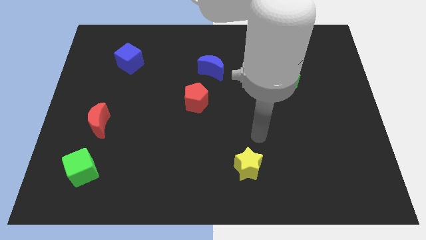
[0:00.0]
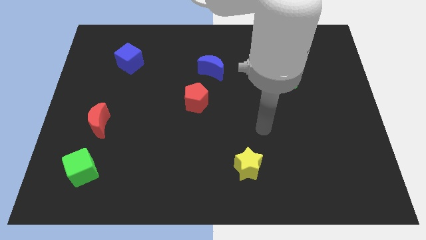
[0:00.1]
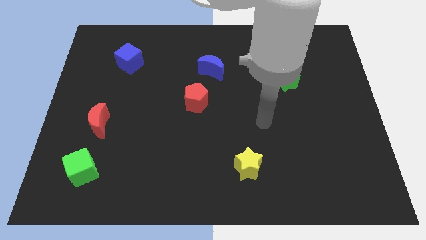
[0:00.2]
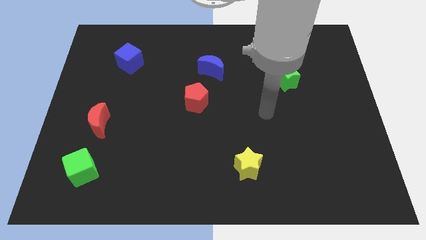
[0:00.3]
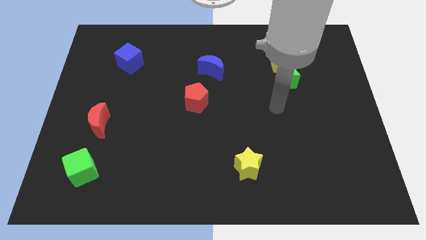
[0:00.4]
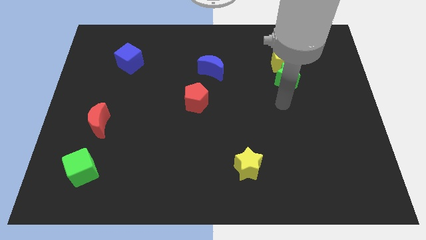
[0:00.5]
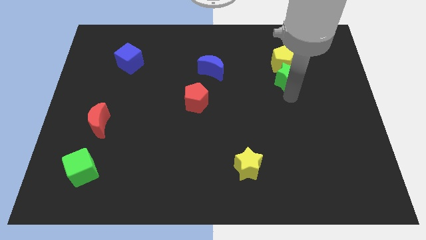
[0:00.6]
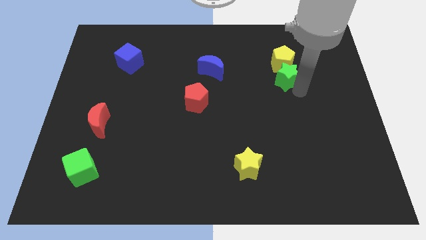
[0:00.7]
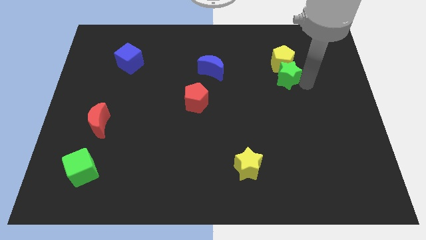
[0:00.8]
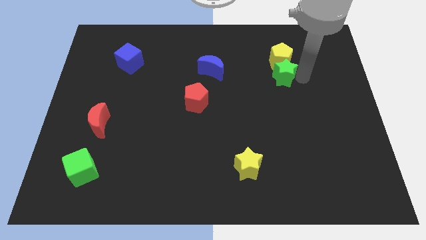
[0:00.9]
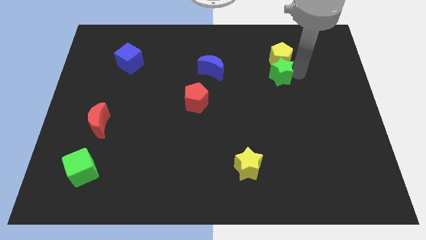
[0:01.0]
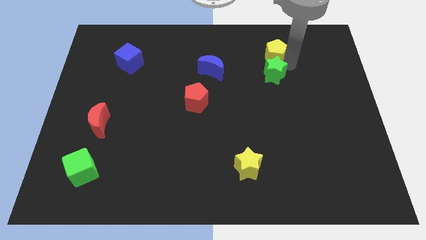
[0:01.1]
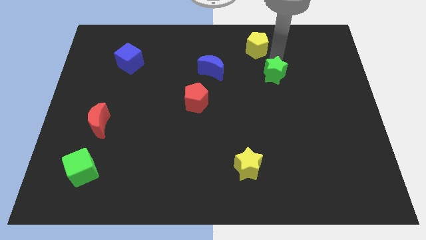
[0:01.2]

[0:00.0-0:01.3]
pull the green star apart from the yellow pentagon

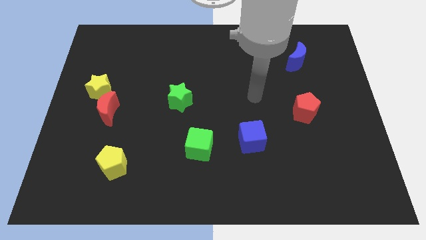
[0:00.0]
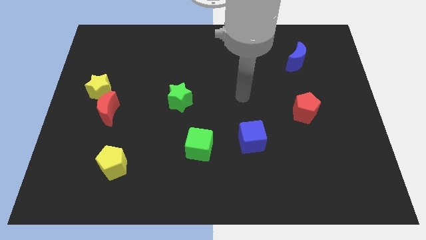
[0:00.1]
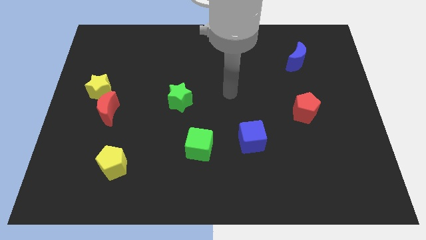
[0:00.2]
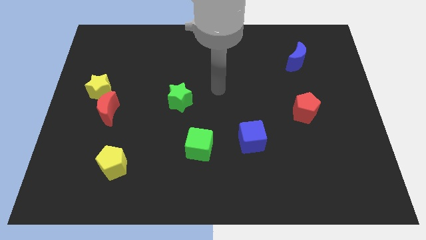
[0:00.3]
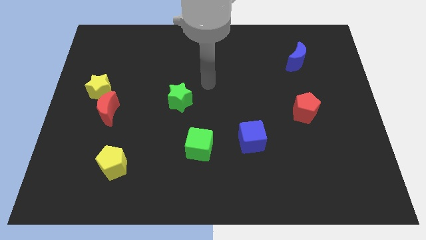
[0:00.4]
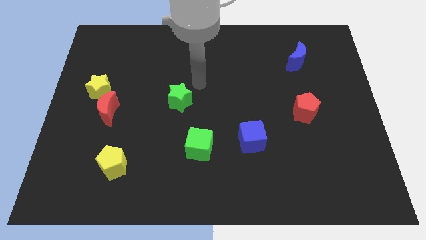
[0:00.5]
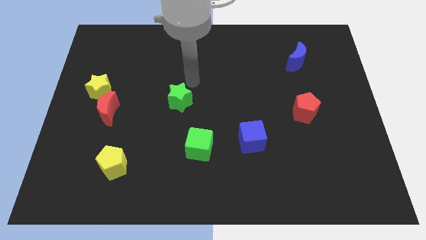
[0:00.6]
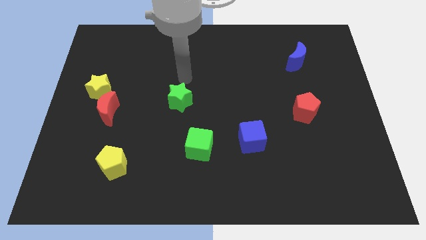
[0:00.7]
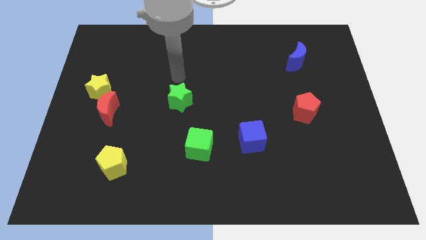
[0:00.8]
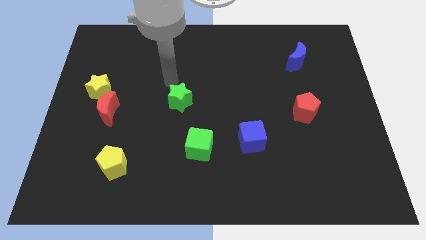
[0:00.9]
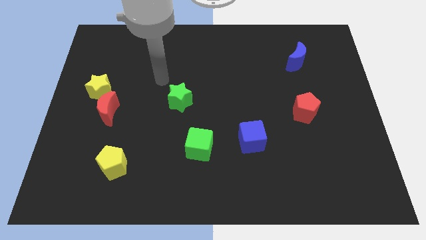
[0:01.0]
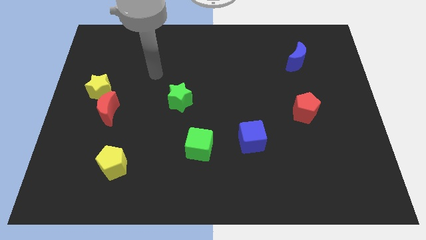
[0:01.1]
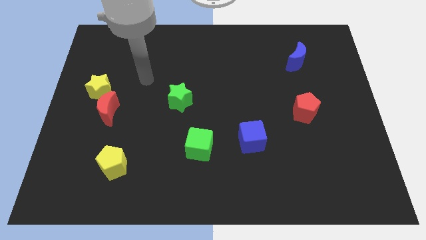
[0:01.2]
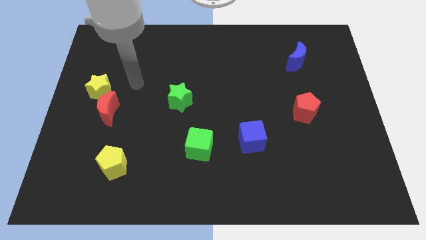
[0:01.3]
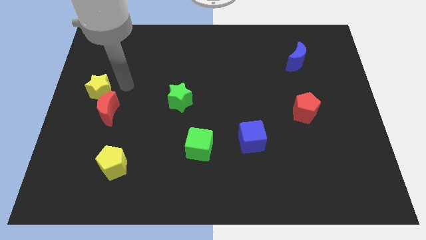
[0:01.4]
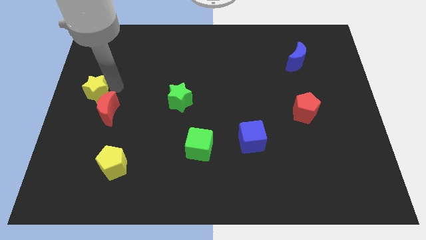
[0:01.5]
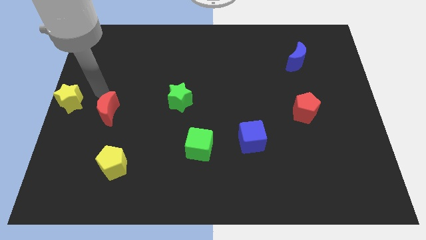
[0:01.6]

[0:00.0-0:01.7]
separate the red moon from the yellow star

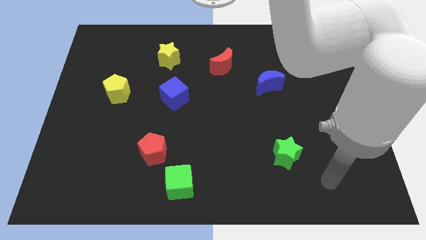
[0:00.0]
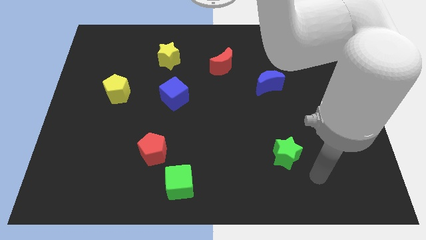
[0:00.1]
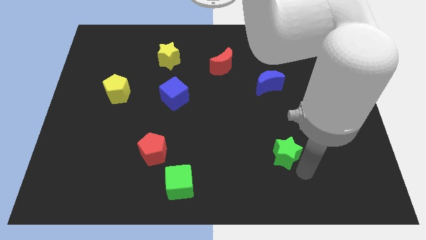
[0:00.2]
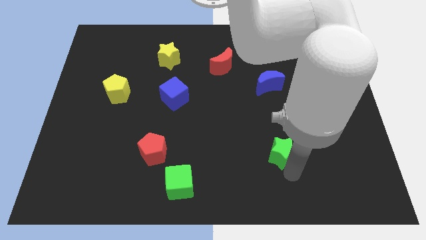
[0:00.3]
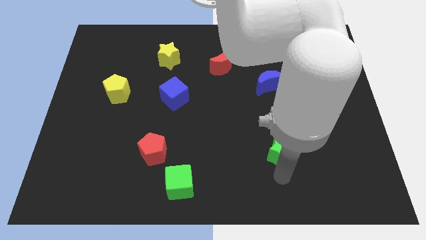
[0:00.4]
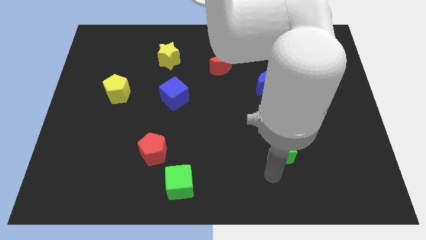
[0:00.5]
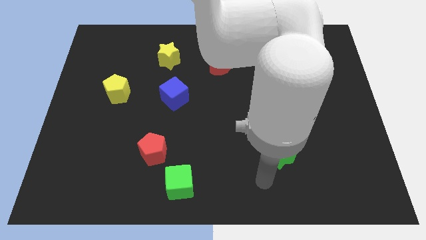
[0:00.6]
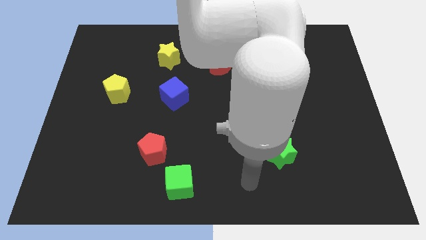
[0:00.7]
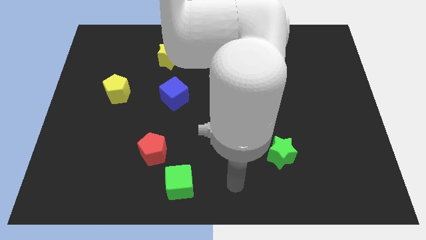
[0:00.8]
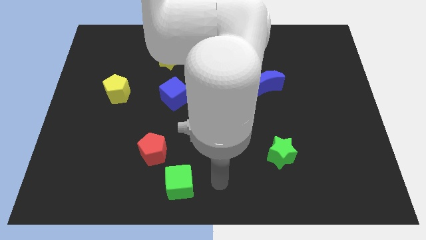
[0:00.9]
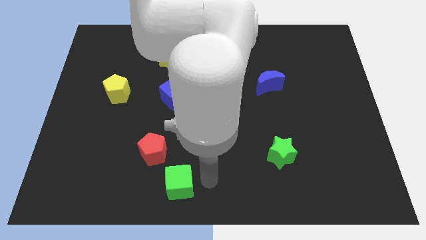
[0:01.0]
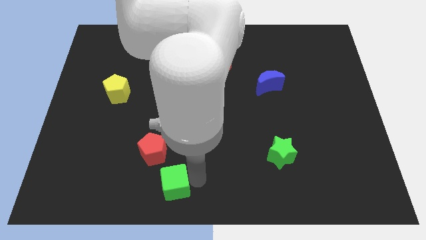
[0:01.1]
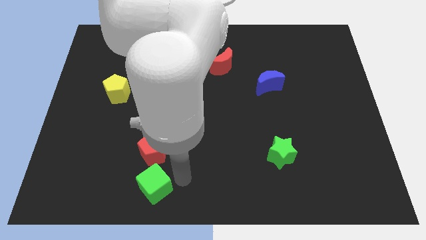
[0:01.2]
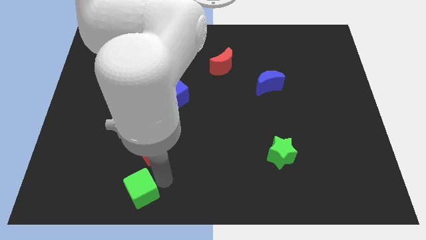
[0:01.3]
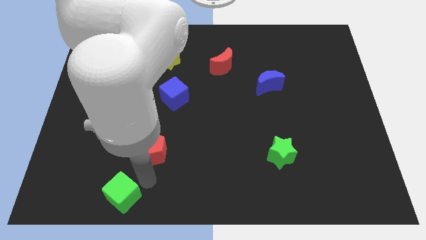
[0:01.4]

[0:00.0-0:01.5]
pull the red pentagon apart from the green cube

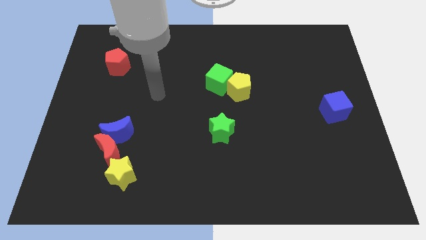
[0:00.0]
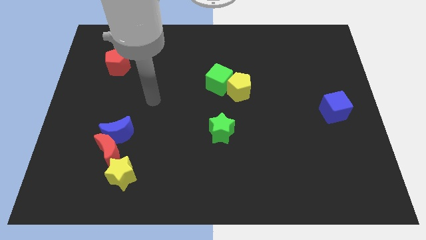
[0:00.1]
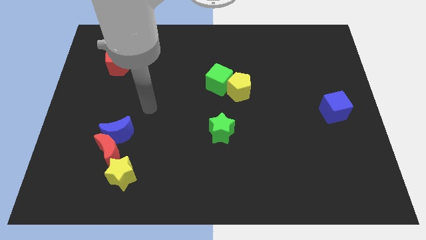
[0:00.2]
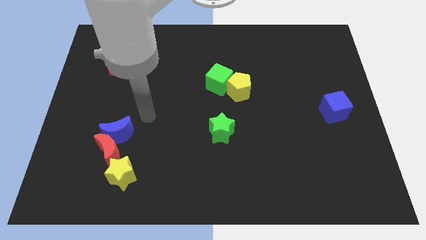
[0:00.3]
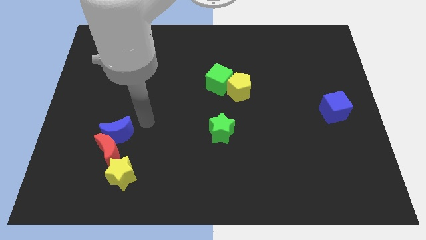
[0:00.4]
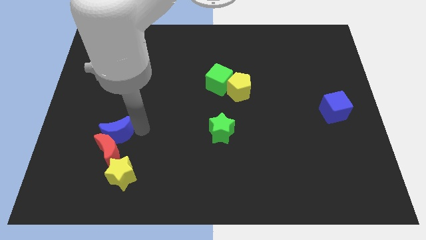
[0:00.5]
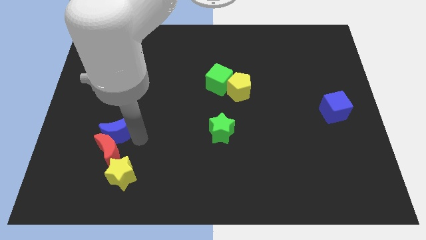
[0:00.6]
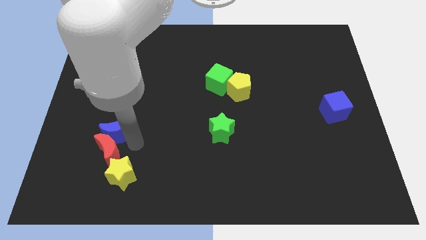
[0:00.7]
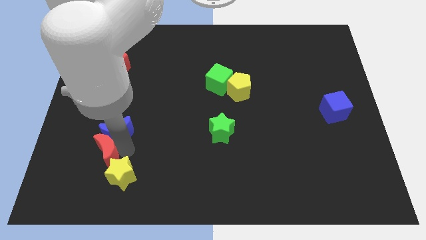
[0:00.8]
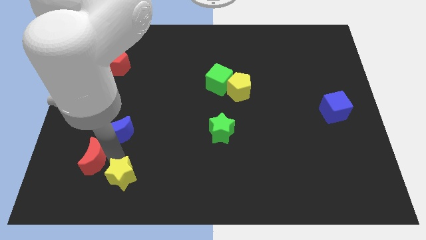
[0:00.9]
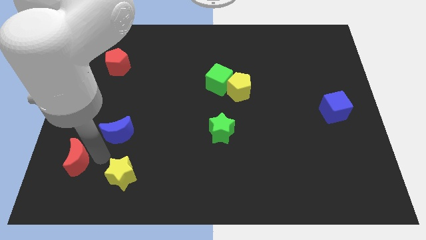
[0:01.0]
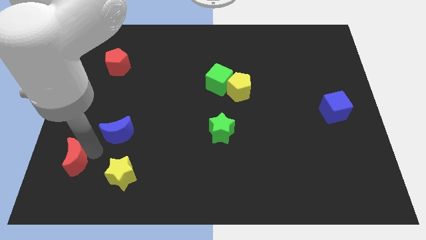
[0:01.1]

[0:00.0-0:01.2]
separate the blue moon from the red moon

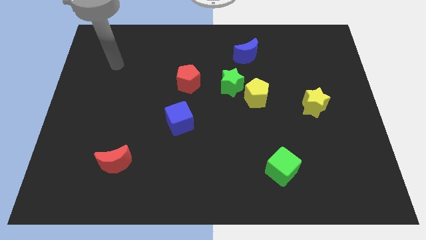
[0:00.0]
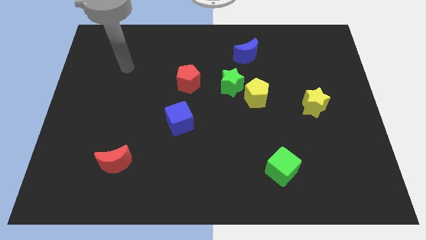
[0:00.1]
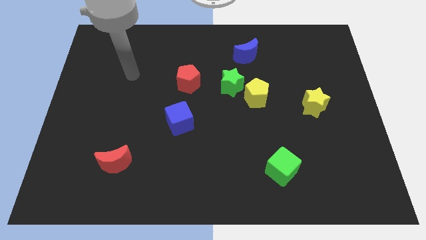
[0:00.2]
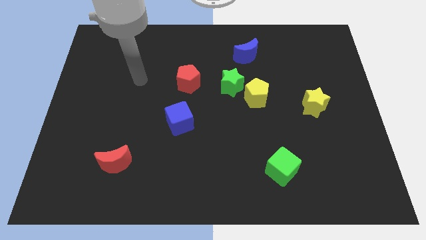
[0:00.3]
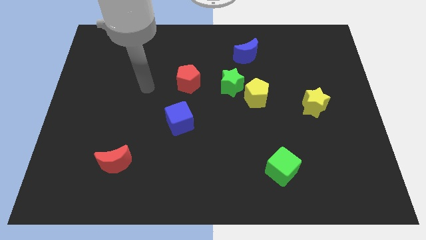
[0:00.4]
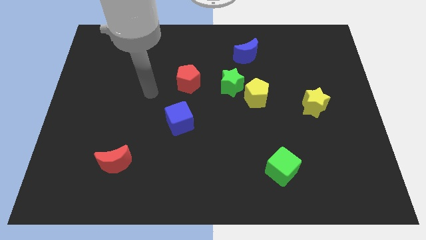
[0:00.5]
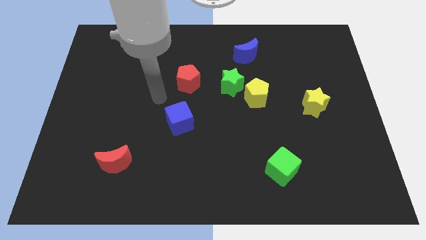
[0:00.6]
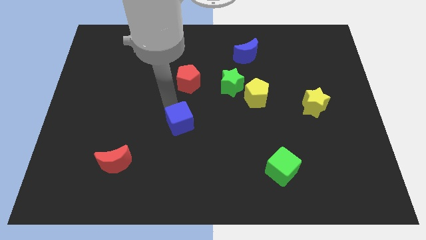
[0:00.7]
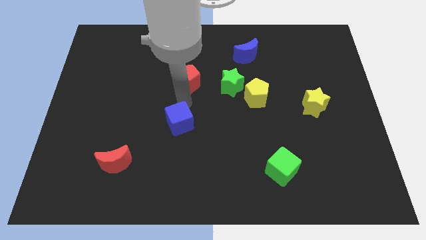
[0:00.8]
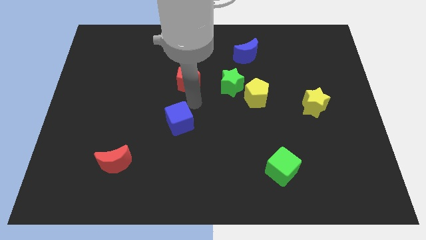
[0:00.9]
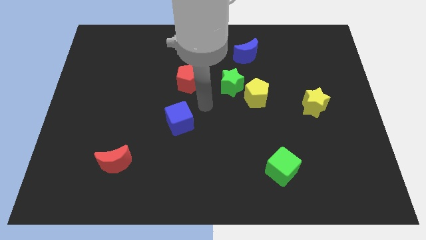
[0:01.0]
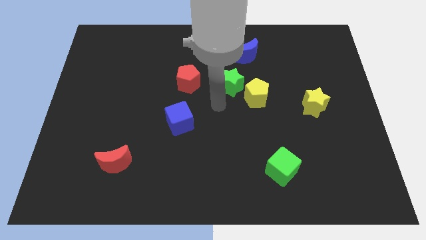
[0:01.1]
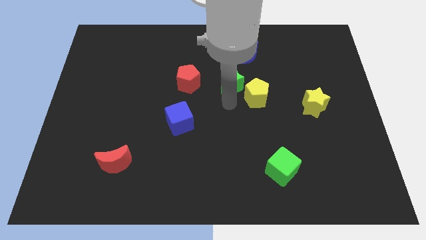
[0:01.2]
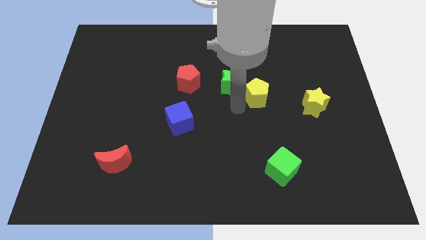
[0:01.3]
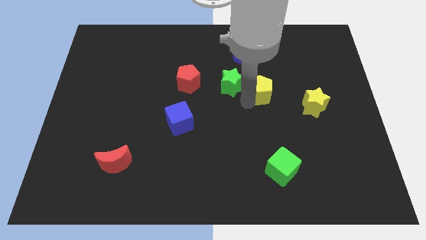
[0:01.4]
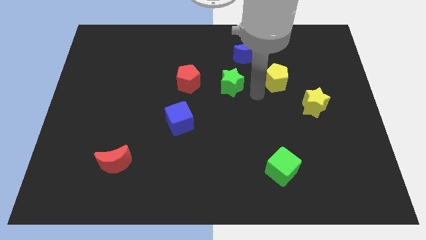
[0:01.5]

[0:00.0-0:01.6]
move the green star away from the yellow pentagon

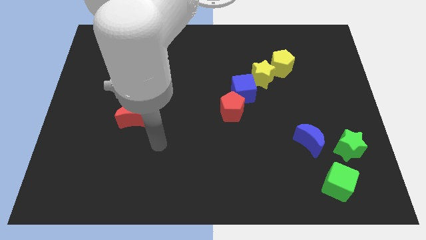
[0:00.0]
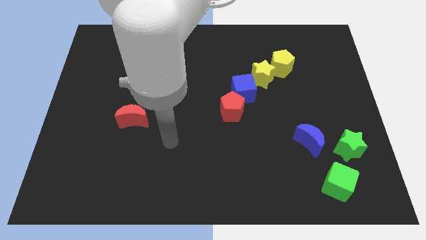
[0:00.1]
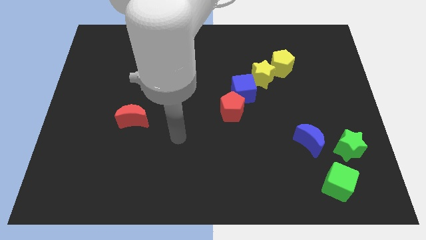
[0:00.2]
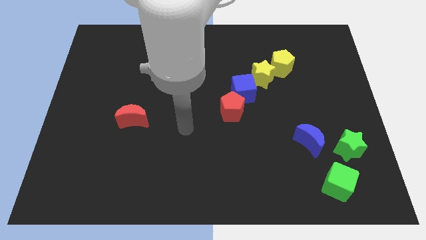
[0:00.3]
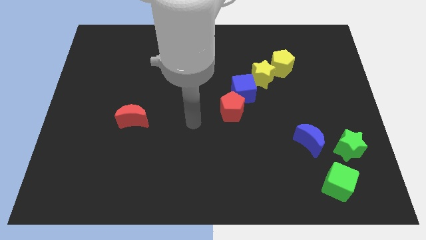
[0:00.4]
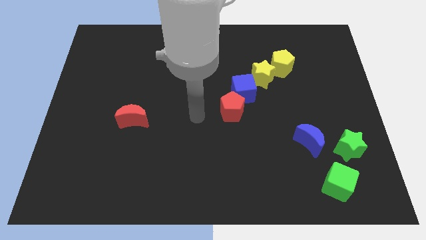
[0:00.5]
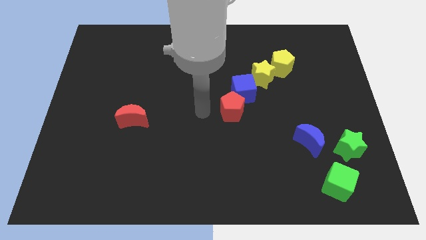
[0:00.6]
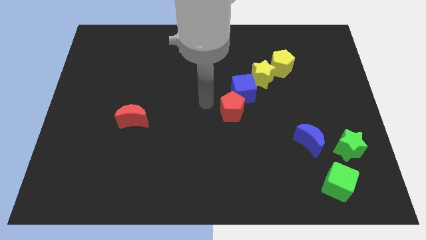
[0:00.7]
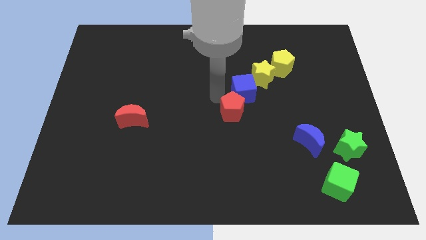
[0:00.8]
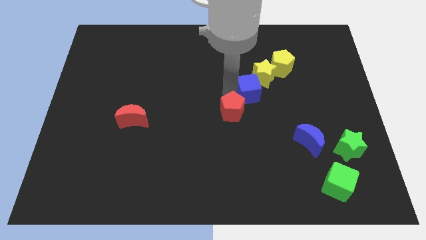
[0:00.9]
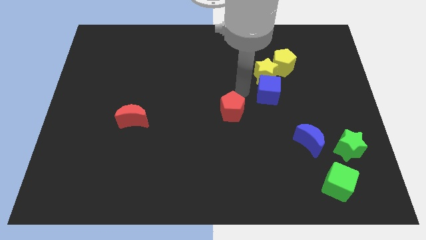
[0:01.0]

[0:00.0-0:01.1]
pull the red pentagon apart from the blue cube

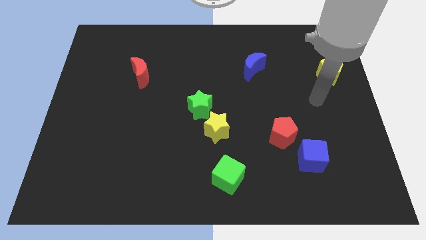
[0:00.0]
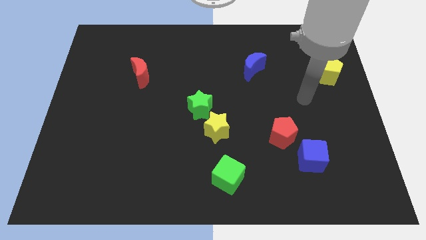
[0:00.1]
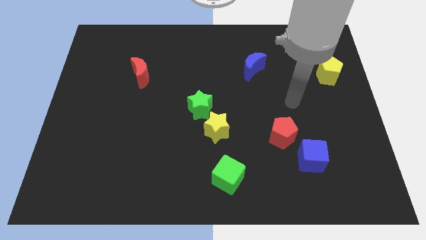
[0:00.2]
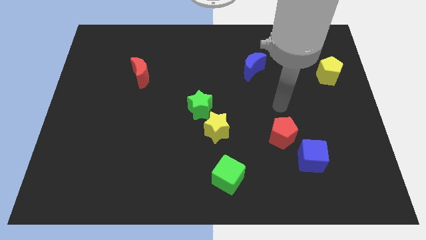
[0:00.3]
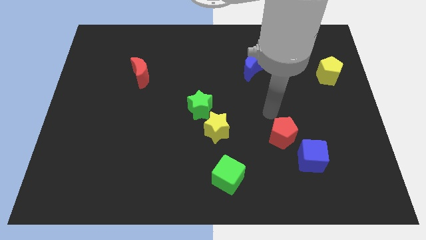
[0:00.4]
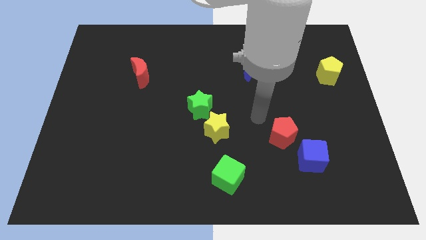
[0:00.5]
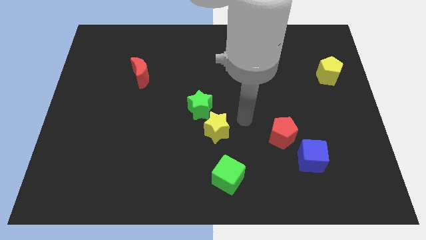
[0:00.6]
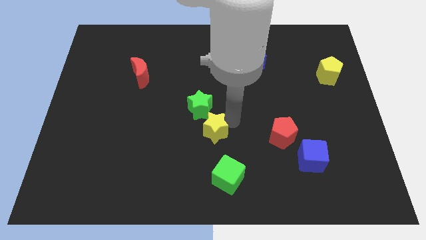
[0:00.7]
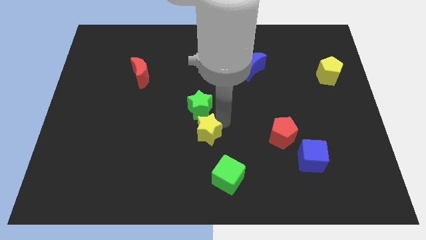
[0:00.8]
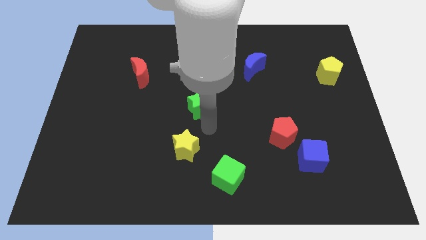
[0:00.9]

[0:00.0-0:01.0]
move the green star away from the yellow star
